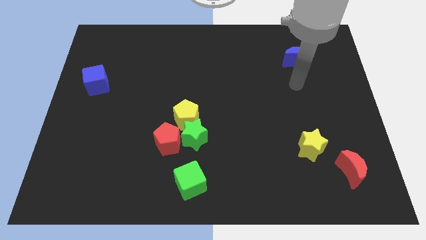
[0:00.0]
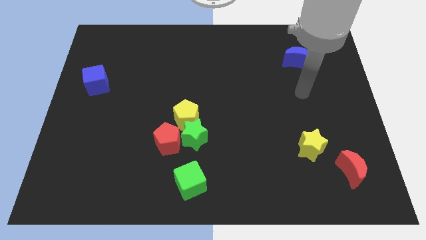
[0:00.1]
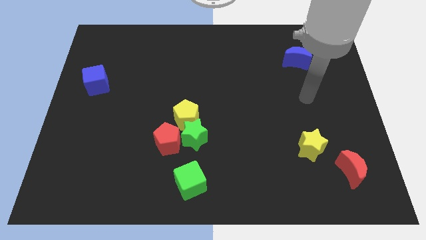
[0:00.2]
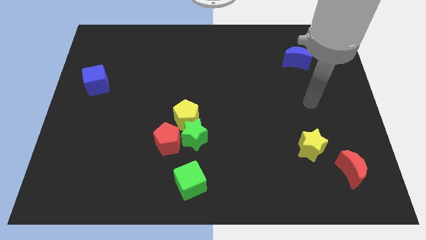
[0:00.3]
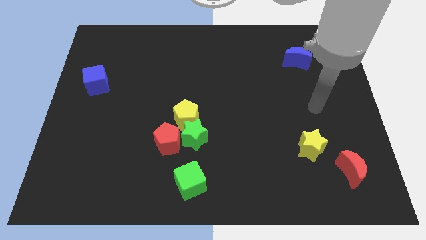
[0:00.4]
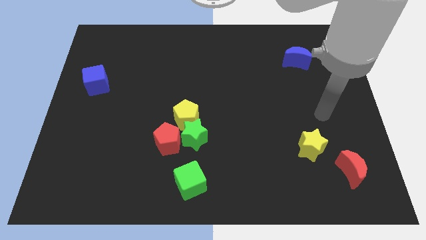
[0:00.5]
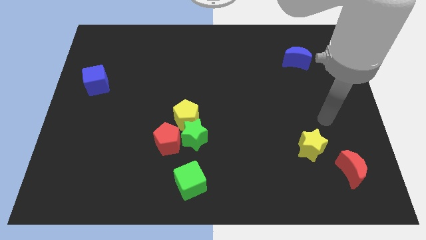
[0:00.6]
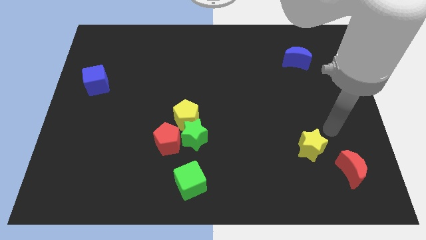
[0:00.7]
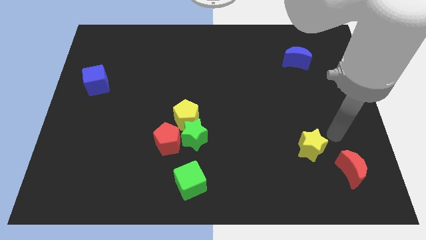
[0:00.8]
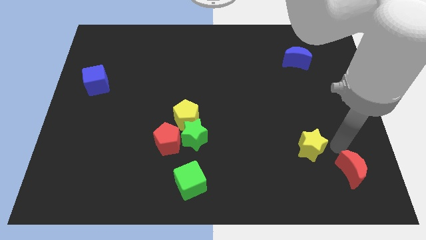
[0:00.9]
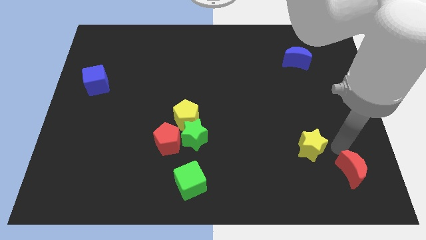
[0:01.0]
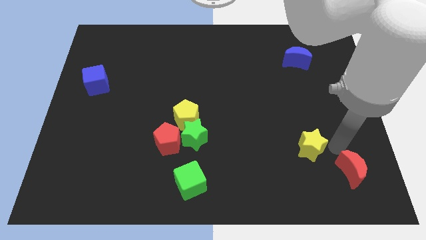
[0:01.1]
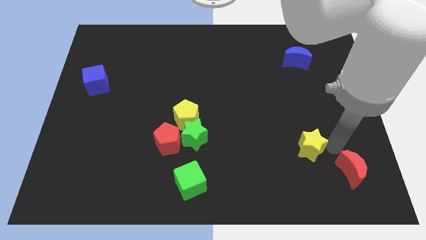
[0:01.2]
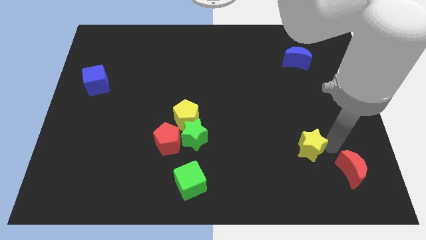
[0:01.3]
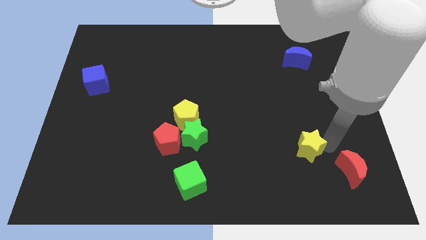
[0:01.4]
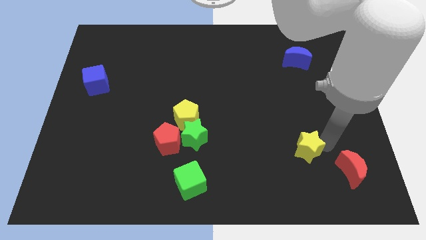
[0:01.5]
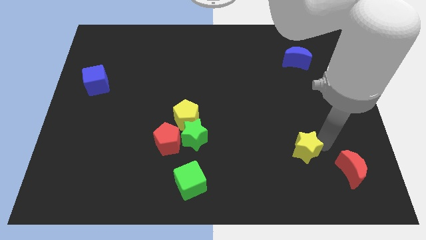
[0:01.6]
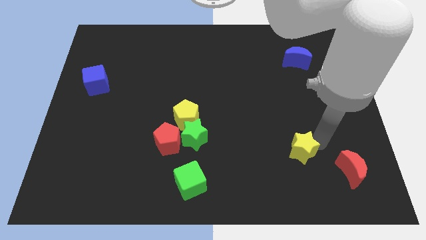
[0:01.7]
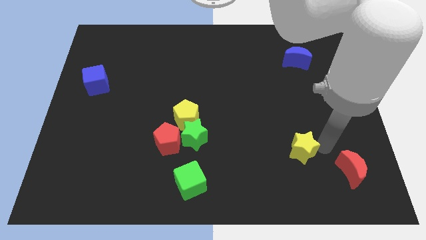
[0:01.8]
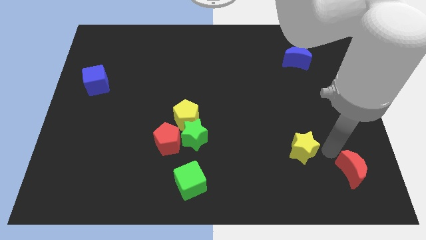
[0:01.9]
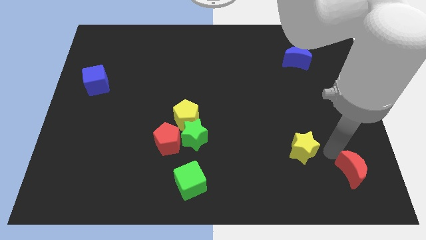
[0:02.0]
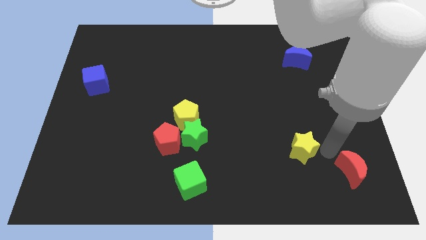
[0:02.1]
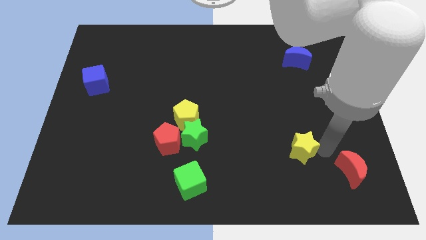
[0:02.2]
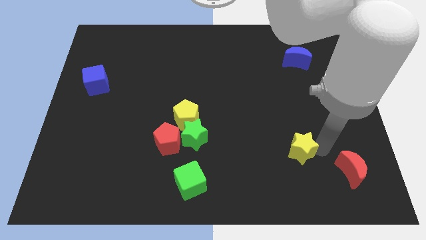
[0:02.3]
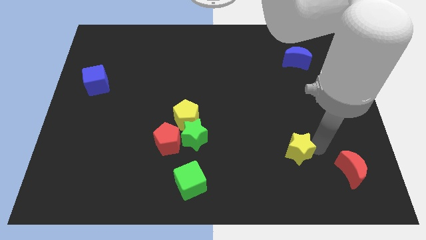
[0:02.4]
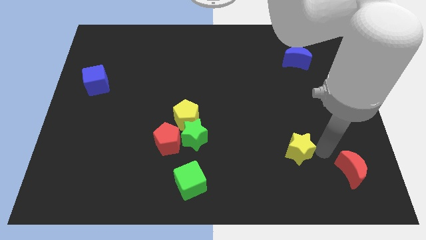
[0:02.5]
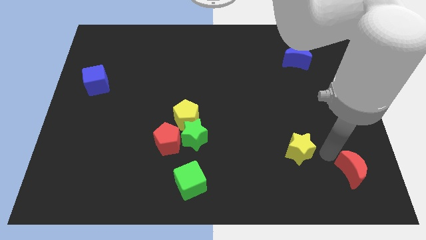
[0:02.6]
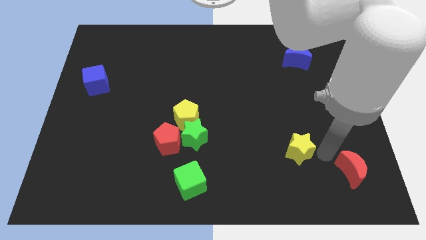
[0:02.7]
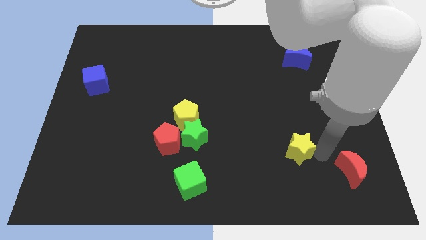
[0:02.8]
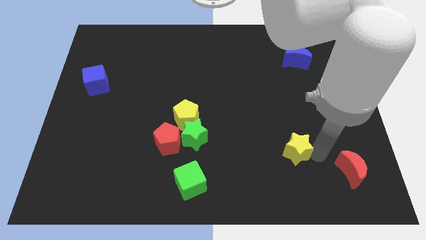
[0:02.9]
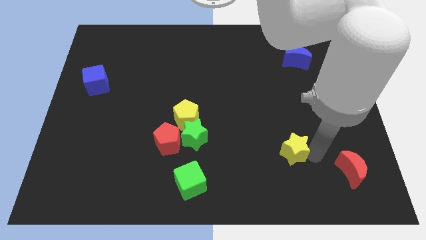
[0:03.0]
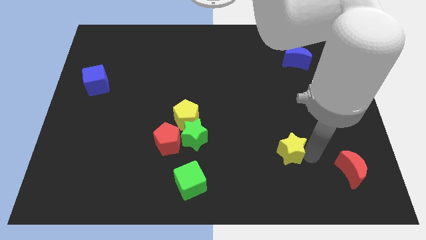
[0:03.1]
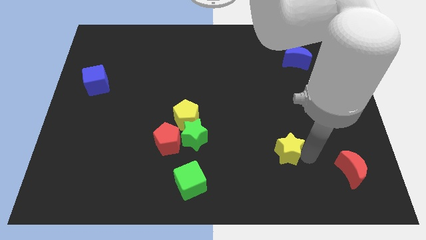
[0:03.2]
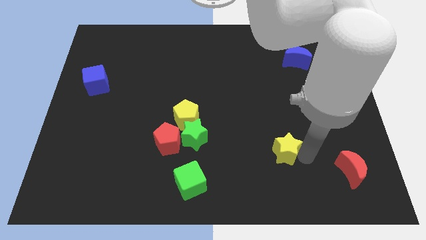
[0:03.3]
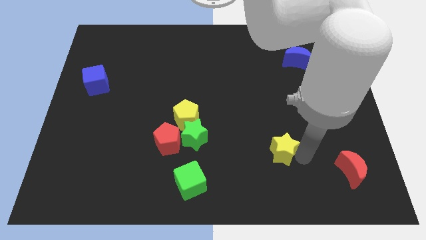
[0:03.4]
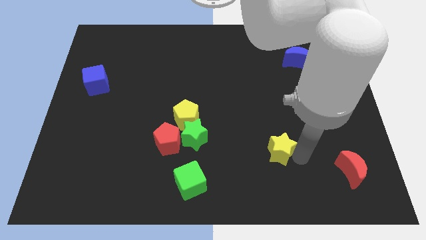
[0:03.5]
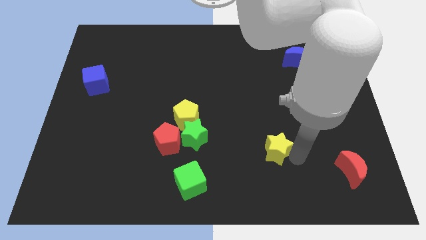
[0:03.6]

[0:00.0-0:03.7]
slightly move the yellow star to the left

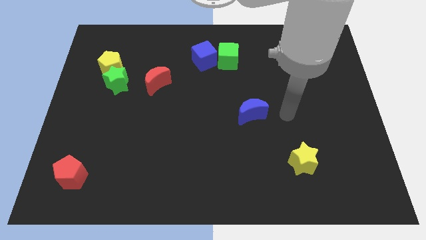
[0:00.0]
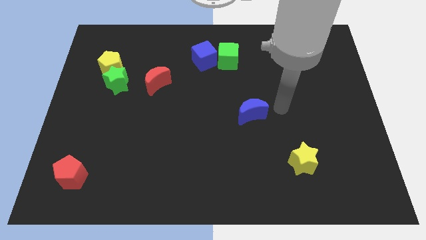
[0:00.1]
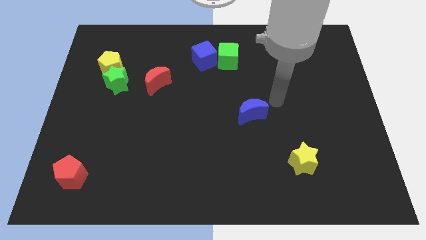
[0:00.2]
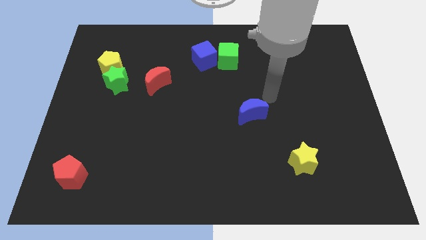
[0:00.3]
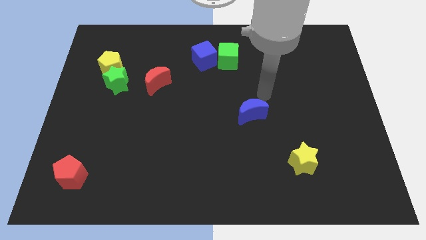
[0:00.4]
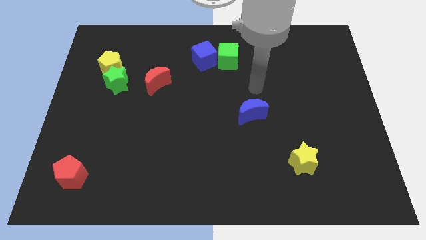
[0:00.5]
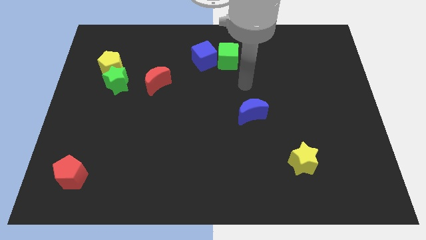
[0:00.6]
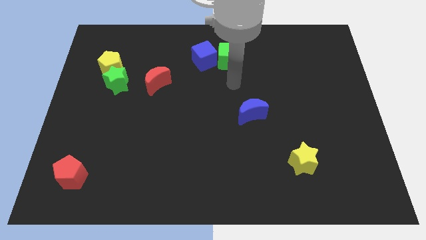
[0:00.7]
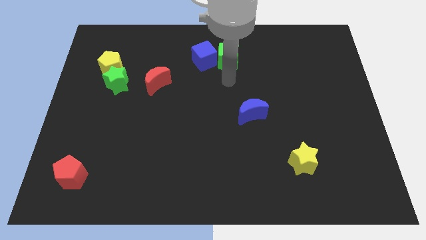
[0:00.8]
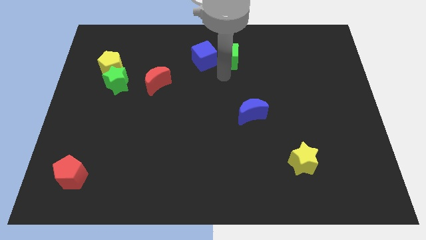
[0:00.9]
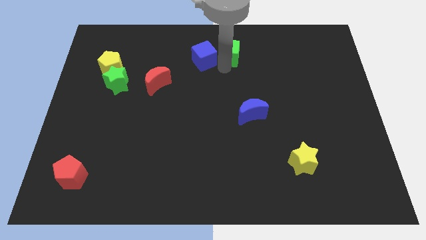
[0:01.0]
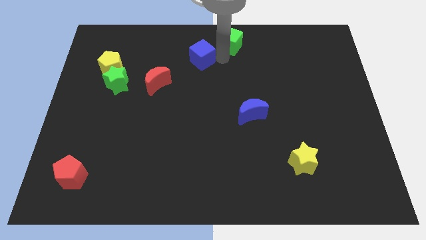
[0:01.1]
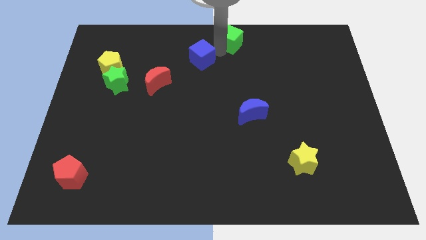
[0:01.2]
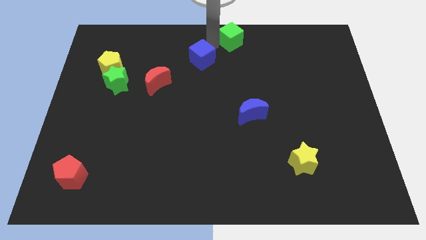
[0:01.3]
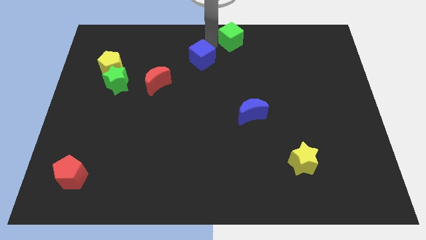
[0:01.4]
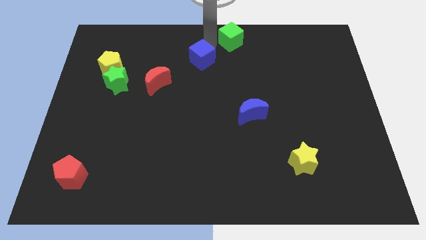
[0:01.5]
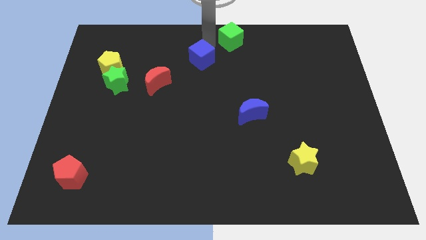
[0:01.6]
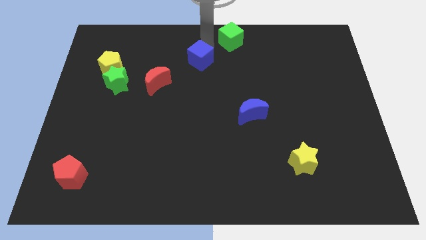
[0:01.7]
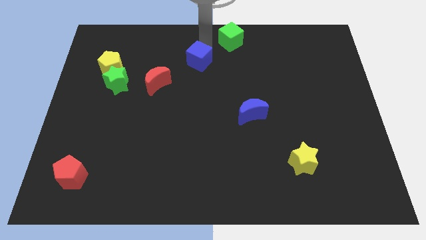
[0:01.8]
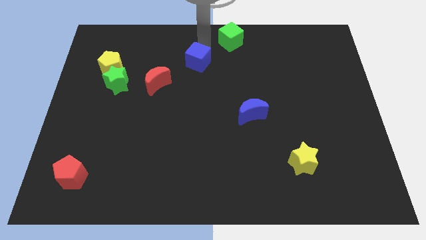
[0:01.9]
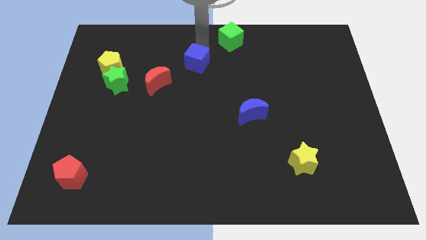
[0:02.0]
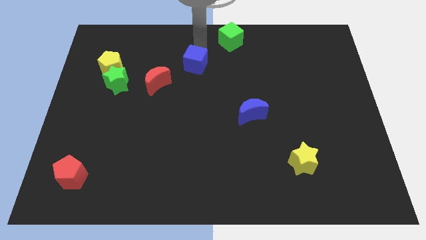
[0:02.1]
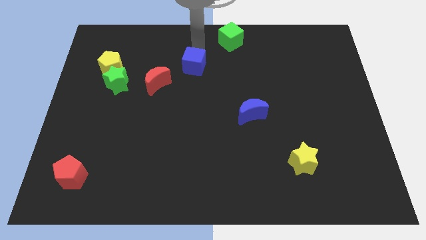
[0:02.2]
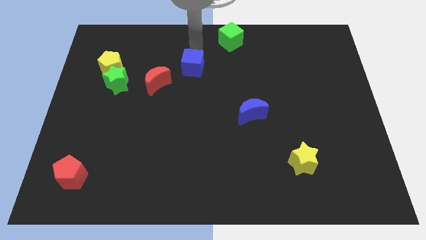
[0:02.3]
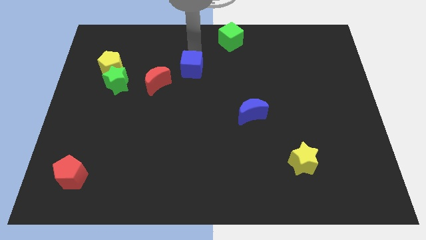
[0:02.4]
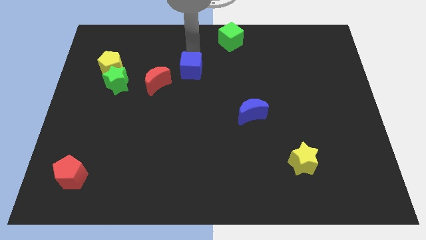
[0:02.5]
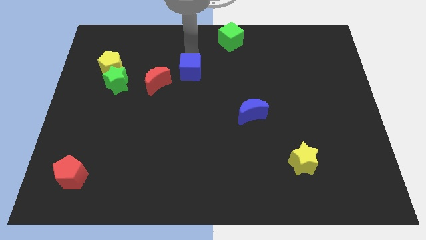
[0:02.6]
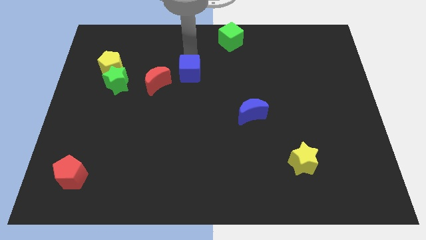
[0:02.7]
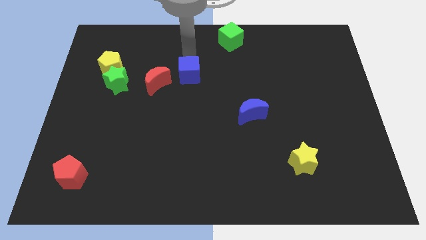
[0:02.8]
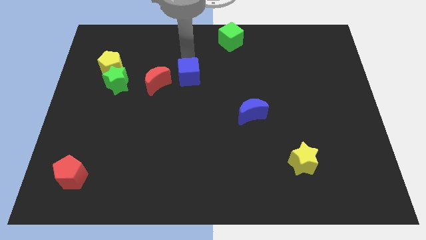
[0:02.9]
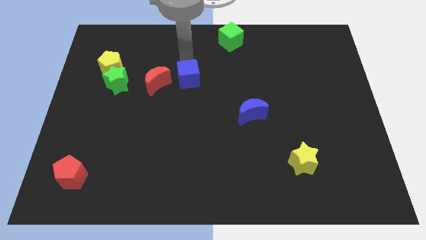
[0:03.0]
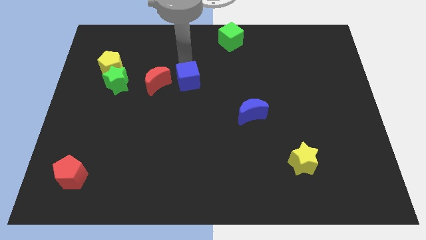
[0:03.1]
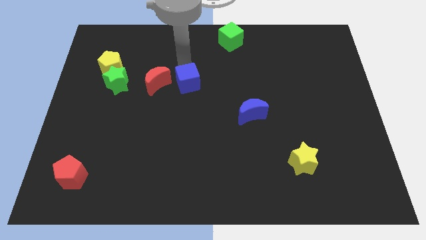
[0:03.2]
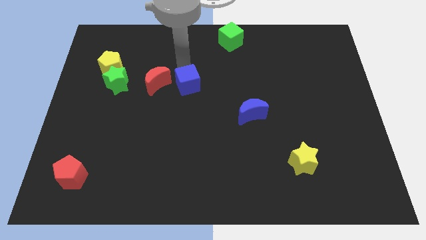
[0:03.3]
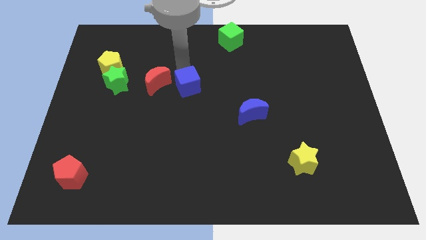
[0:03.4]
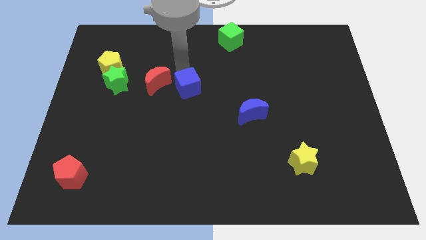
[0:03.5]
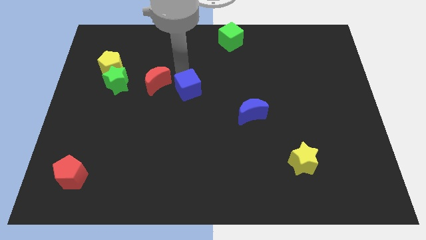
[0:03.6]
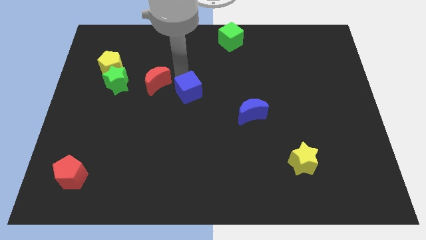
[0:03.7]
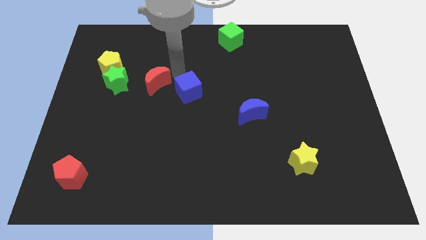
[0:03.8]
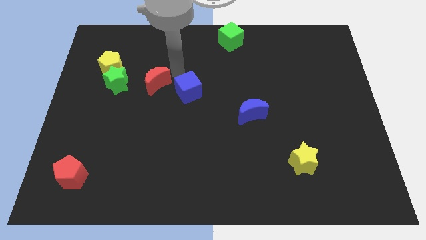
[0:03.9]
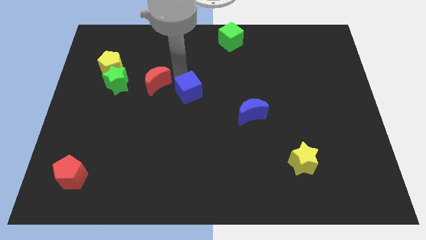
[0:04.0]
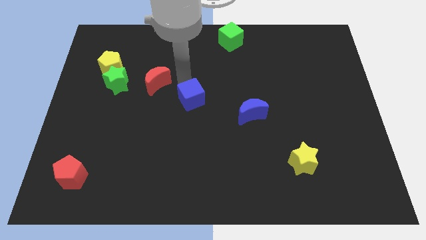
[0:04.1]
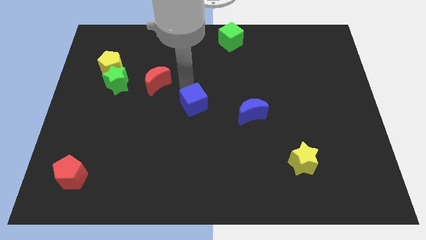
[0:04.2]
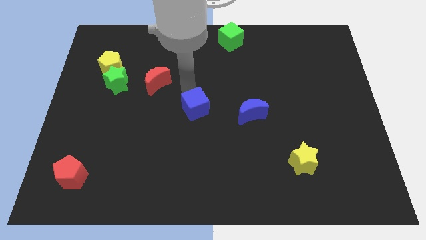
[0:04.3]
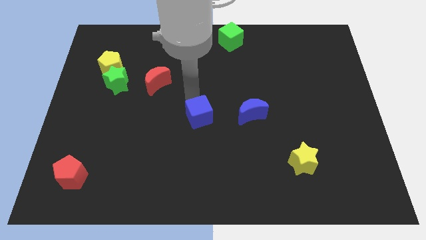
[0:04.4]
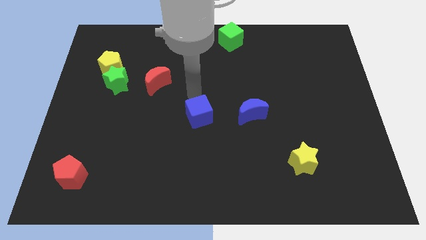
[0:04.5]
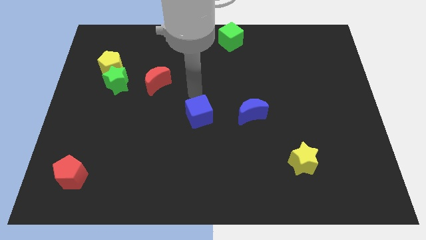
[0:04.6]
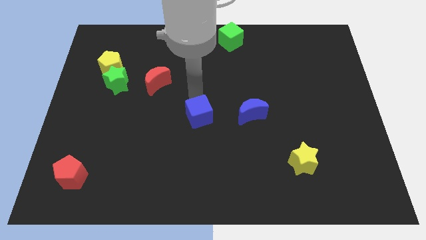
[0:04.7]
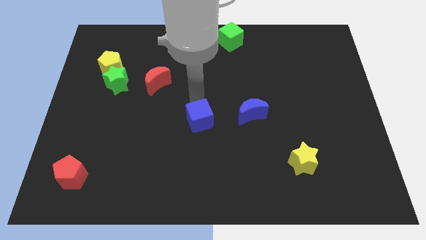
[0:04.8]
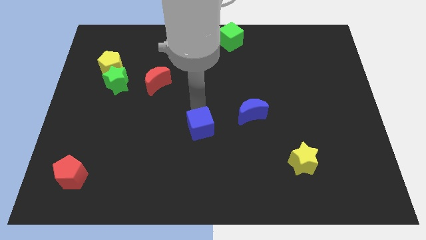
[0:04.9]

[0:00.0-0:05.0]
slide the blue cube down
